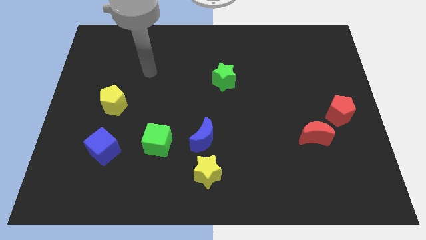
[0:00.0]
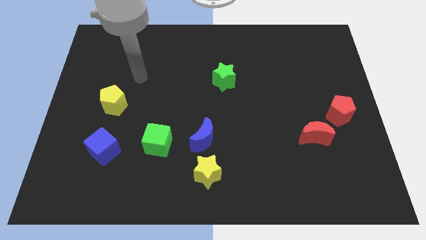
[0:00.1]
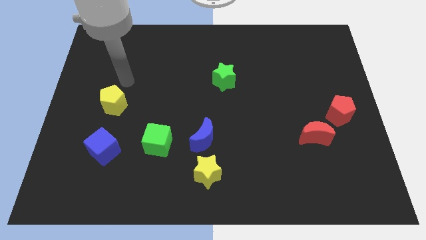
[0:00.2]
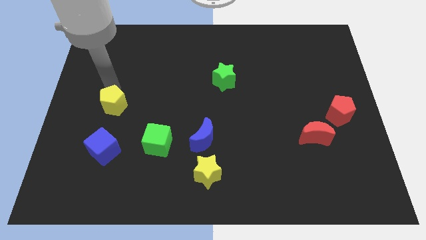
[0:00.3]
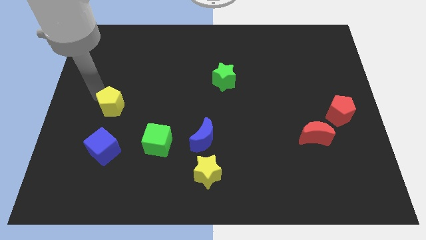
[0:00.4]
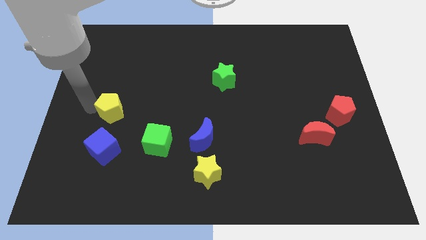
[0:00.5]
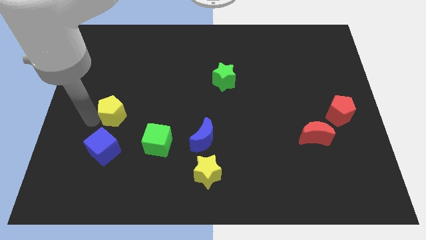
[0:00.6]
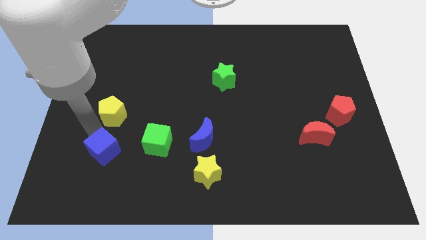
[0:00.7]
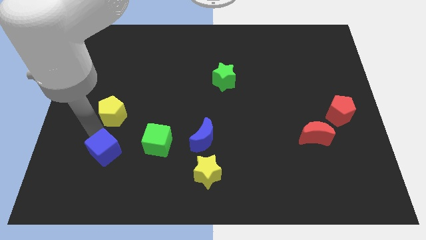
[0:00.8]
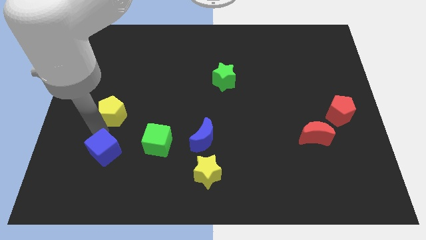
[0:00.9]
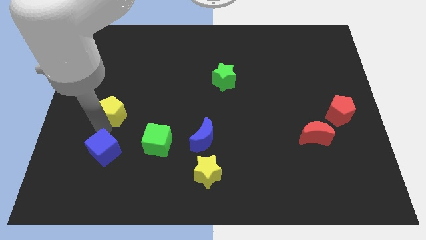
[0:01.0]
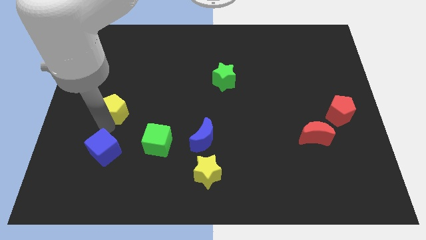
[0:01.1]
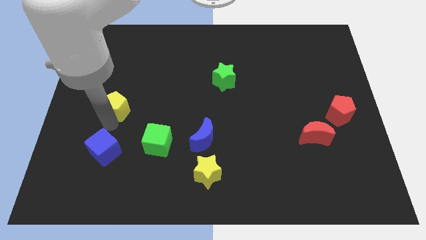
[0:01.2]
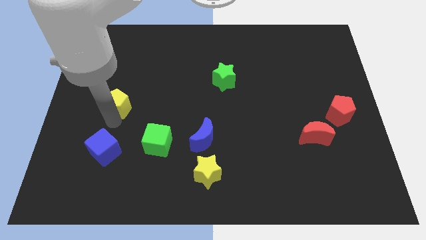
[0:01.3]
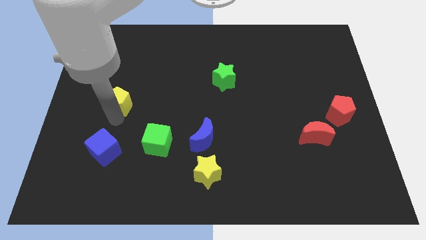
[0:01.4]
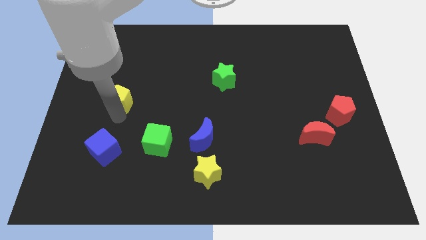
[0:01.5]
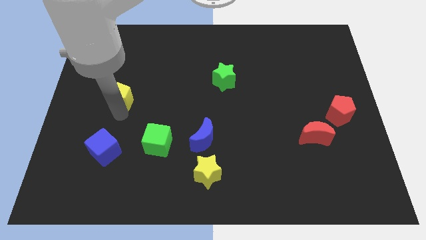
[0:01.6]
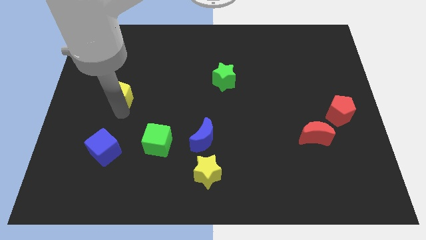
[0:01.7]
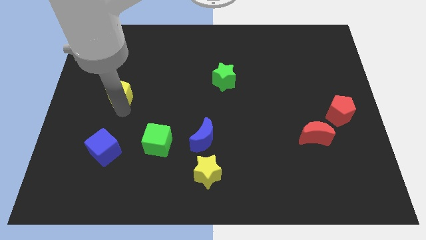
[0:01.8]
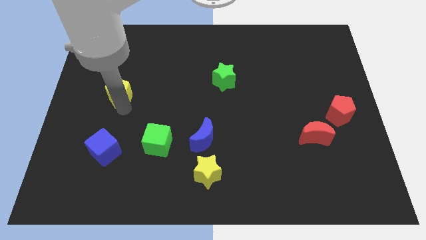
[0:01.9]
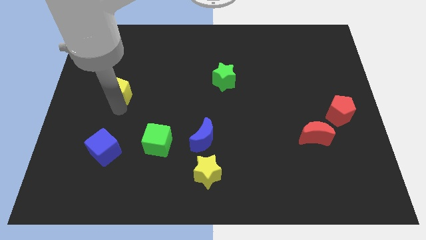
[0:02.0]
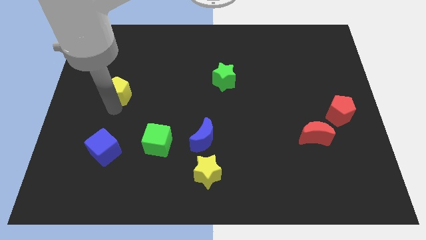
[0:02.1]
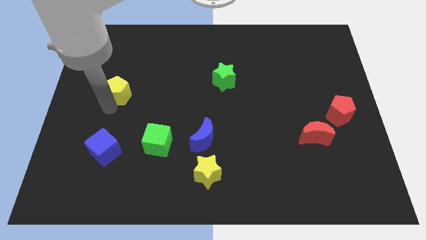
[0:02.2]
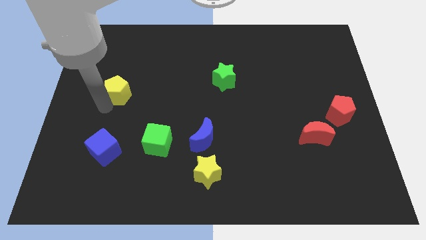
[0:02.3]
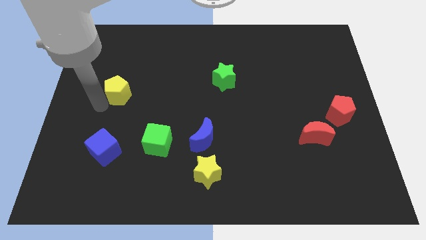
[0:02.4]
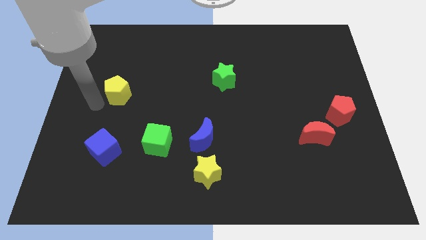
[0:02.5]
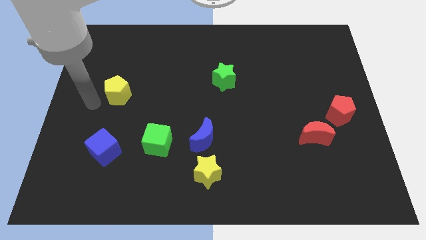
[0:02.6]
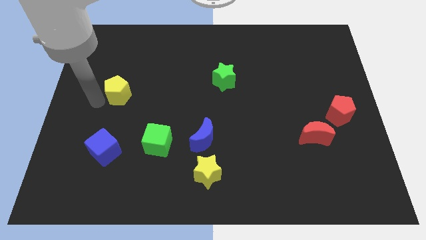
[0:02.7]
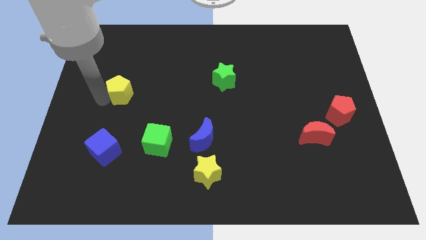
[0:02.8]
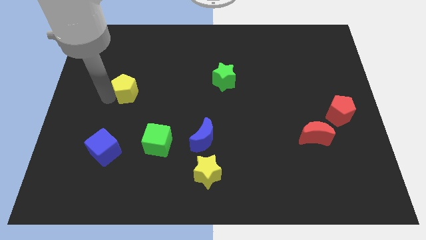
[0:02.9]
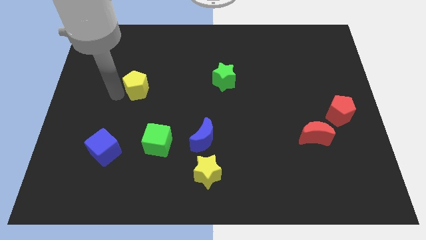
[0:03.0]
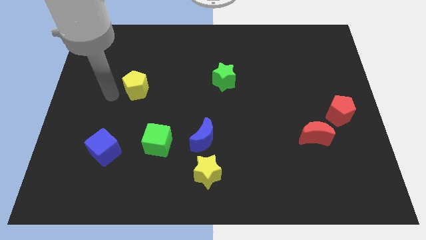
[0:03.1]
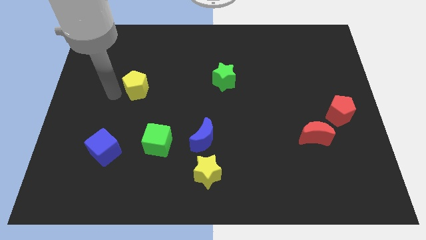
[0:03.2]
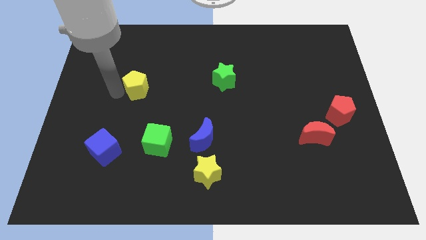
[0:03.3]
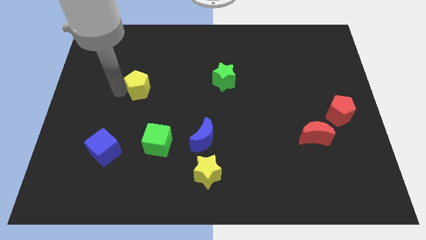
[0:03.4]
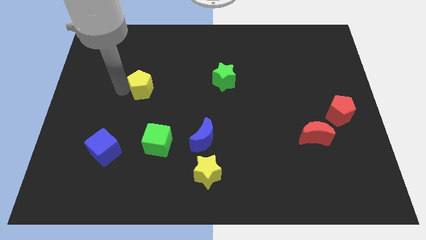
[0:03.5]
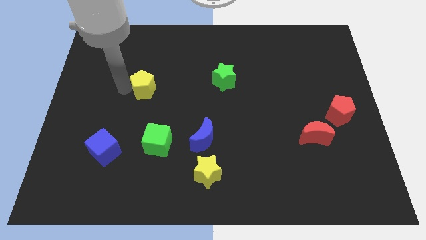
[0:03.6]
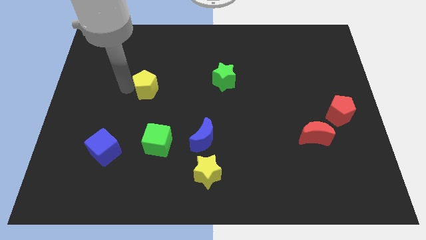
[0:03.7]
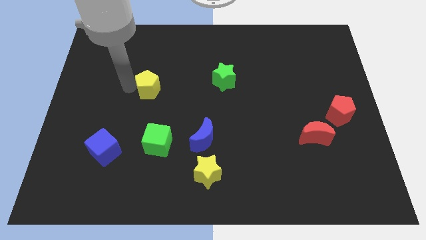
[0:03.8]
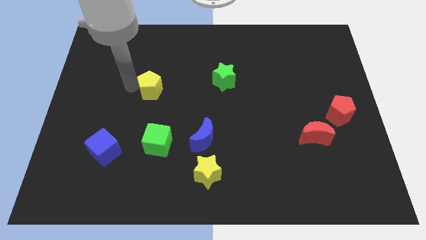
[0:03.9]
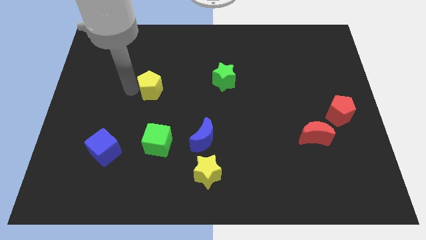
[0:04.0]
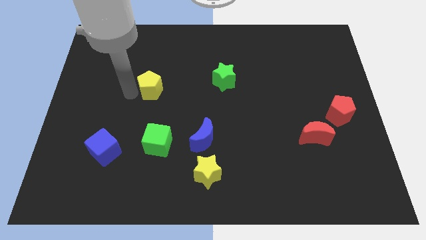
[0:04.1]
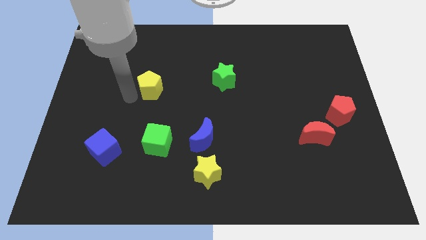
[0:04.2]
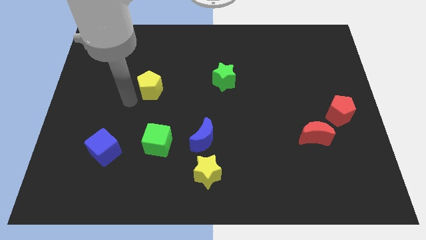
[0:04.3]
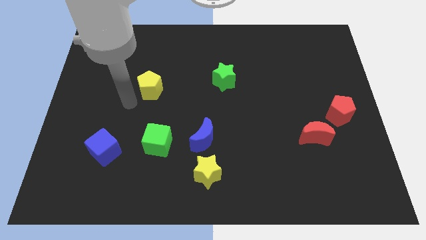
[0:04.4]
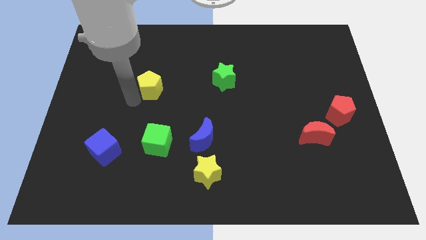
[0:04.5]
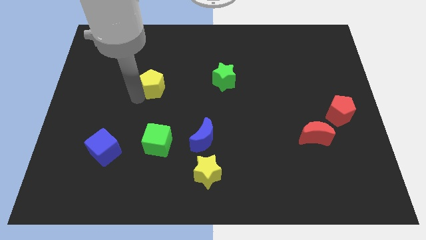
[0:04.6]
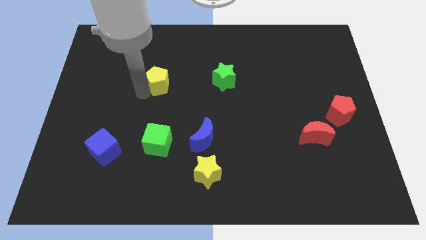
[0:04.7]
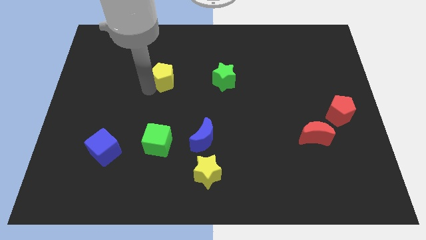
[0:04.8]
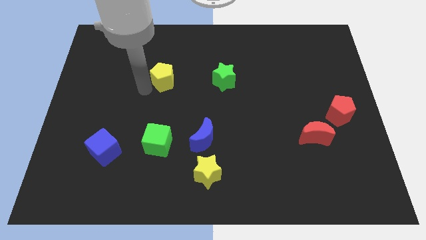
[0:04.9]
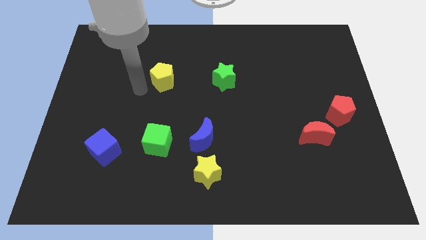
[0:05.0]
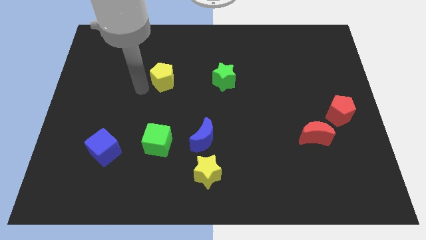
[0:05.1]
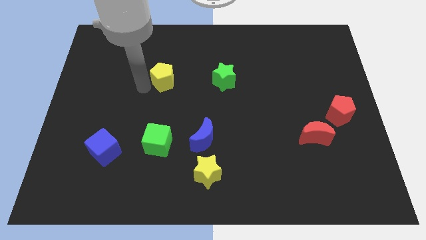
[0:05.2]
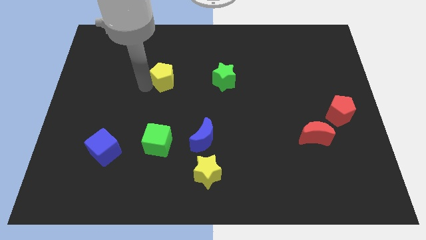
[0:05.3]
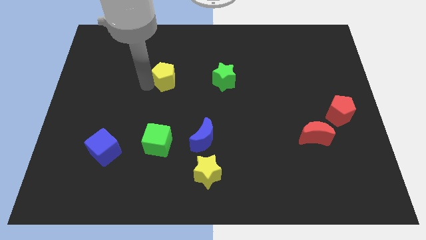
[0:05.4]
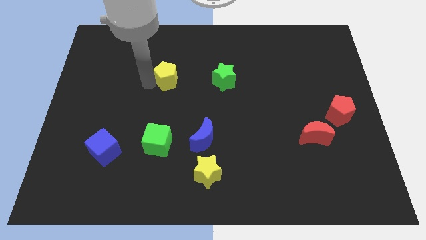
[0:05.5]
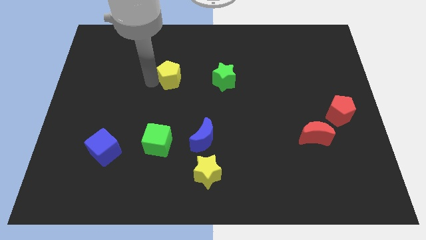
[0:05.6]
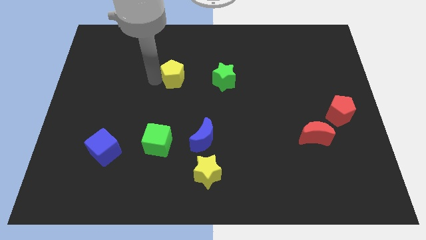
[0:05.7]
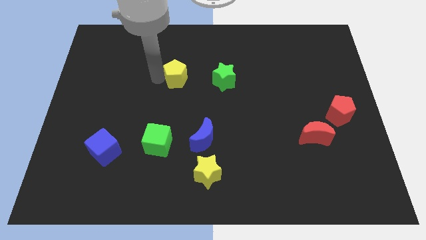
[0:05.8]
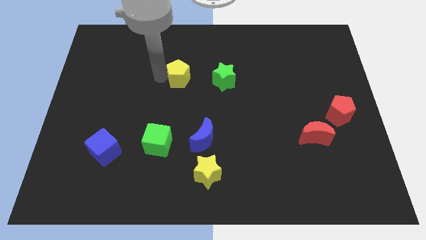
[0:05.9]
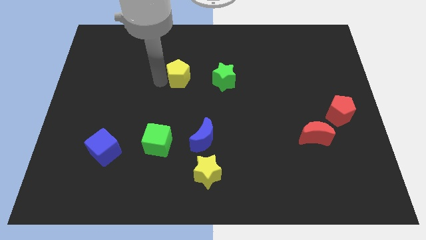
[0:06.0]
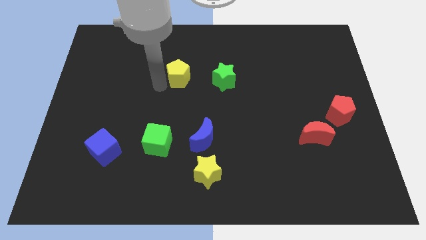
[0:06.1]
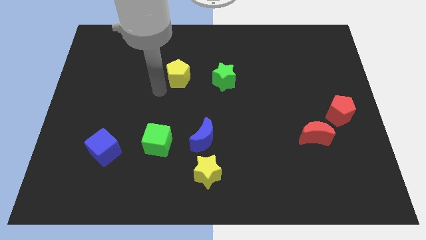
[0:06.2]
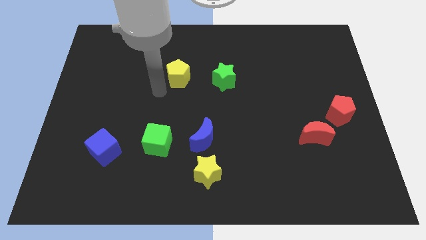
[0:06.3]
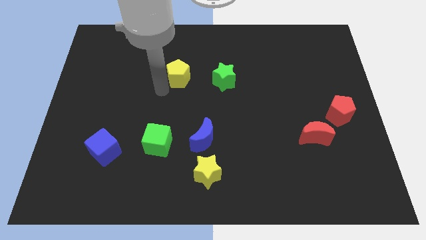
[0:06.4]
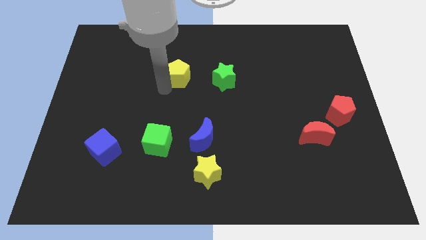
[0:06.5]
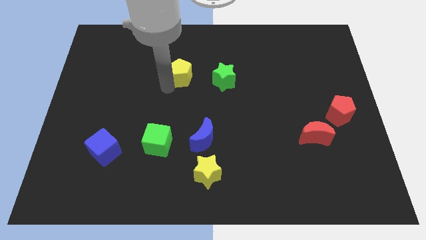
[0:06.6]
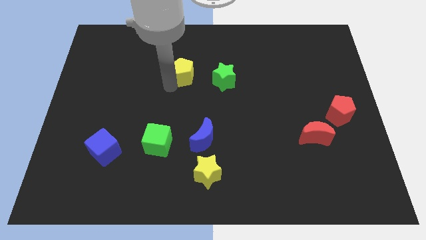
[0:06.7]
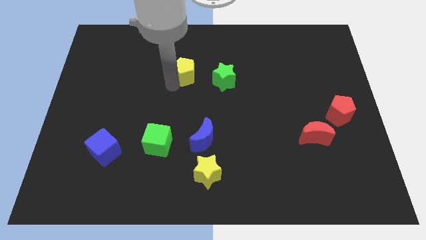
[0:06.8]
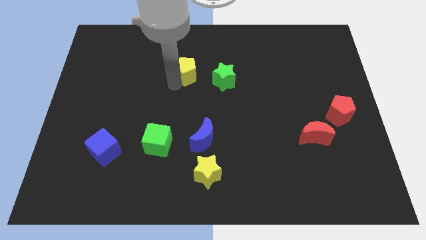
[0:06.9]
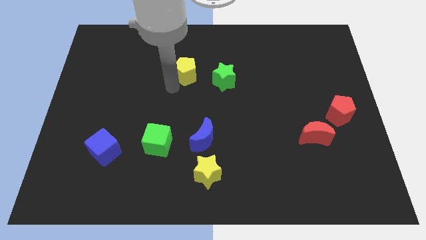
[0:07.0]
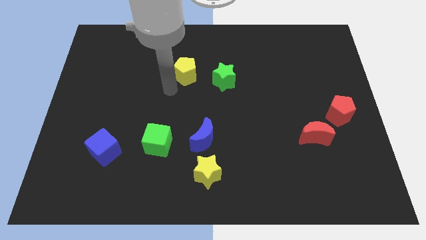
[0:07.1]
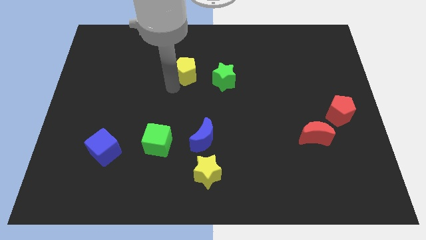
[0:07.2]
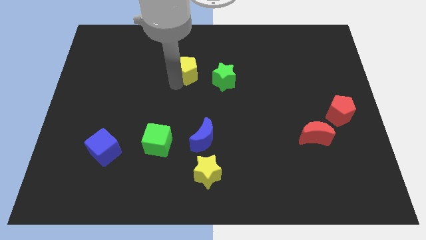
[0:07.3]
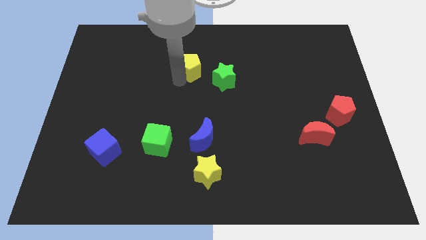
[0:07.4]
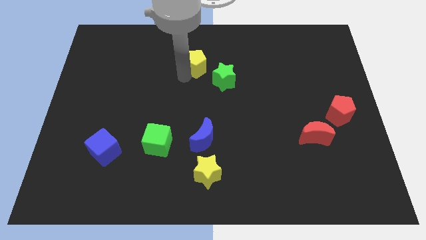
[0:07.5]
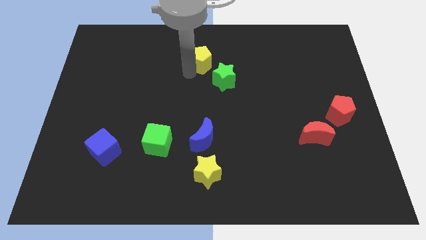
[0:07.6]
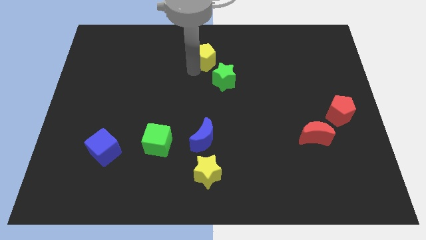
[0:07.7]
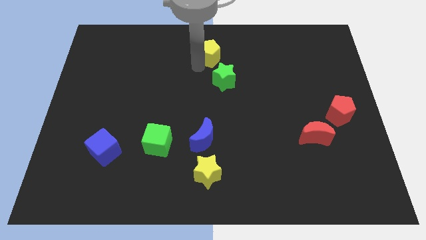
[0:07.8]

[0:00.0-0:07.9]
push the yellow pentagon to the top

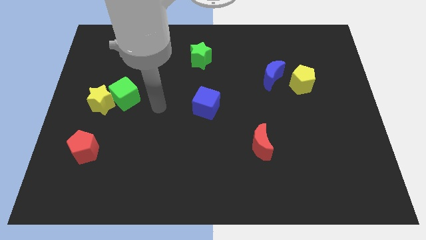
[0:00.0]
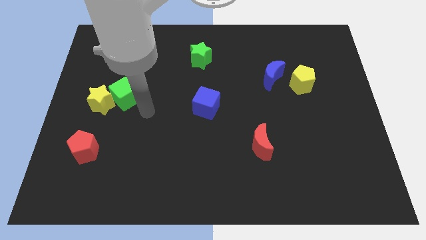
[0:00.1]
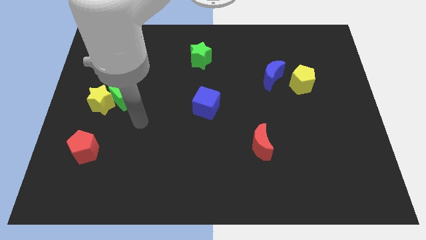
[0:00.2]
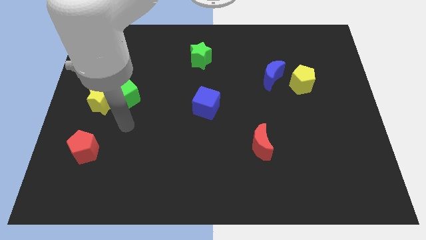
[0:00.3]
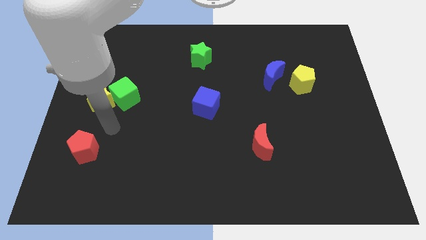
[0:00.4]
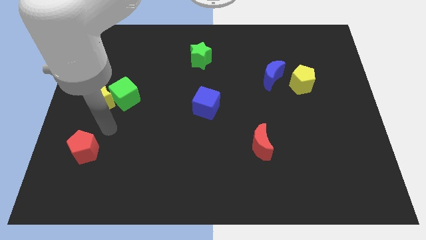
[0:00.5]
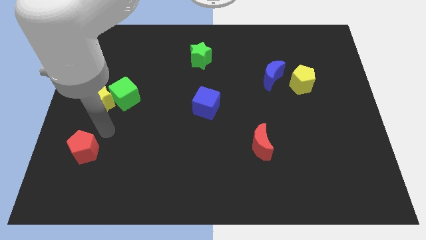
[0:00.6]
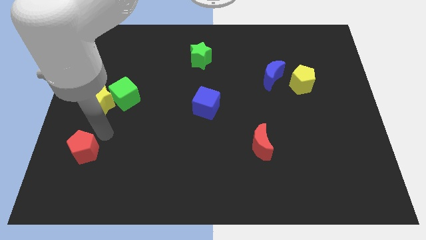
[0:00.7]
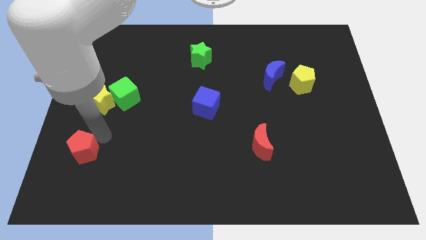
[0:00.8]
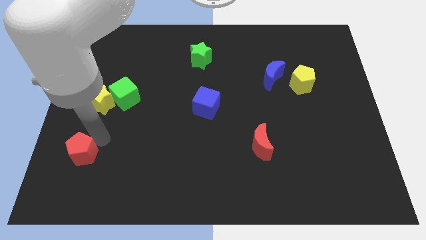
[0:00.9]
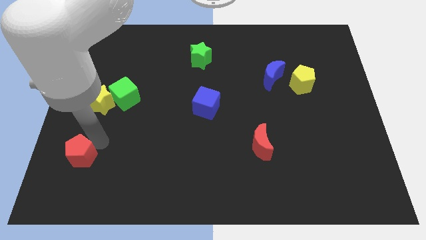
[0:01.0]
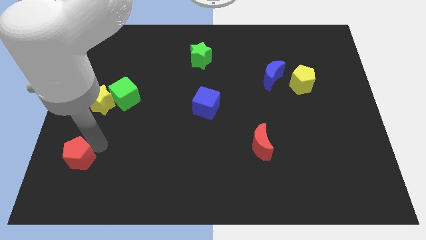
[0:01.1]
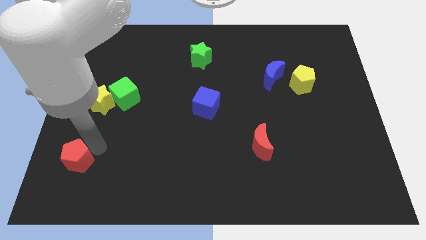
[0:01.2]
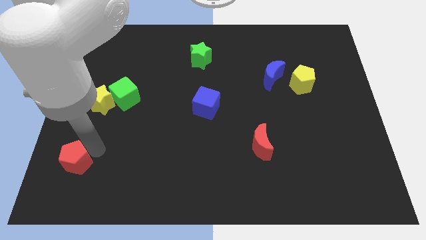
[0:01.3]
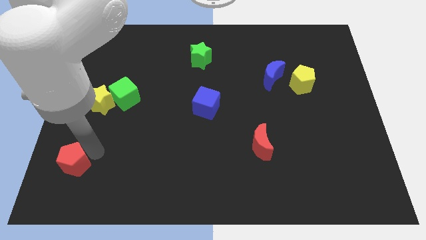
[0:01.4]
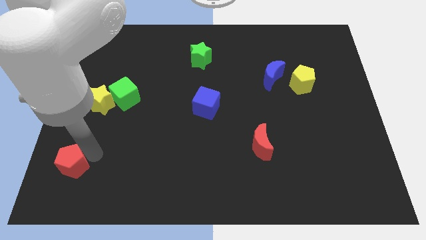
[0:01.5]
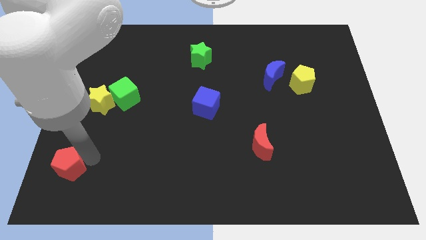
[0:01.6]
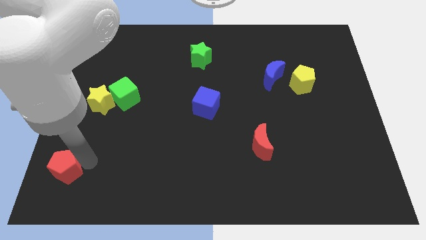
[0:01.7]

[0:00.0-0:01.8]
slide the red pentagon to the bottom left corner
